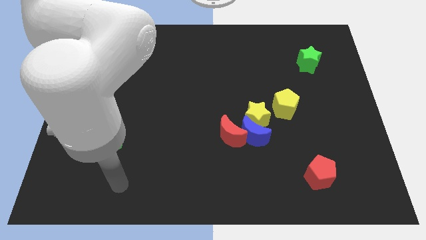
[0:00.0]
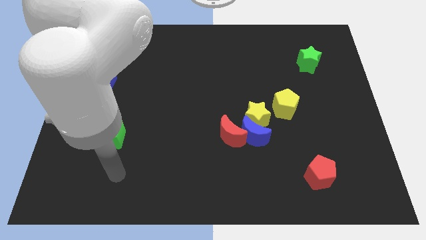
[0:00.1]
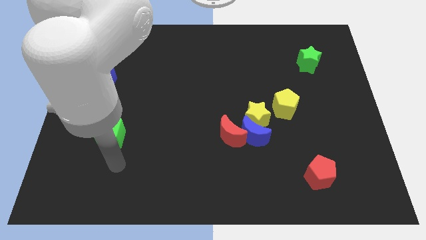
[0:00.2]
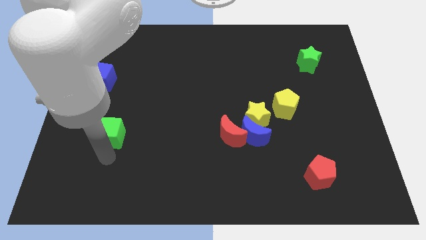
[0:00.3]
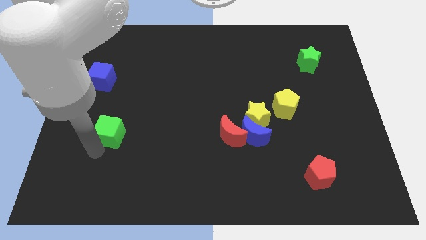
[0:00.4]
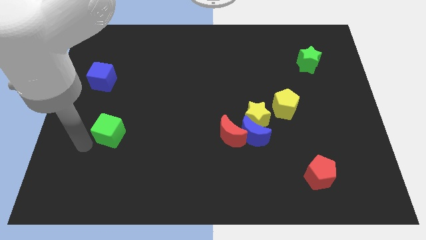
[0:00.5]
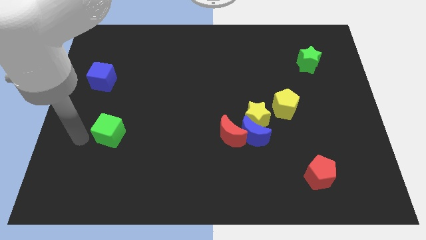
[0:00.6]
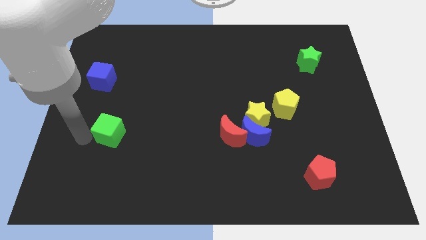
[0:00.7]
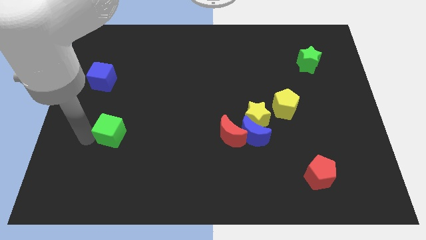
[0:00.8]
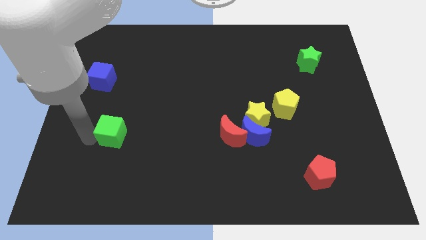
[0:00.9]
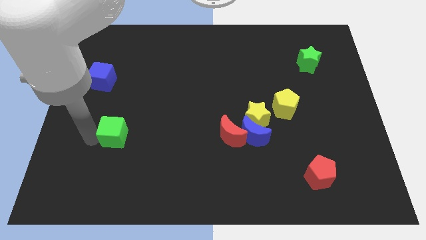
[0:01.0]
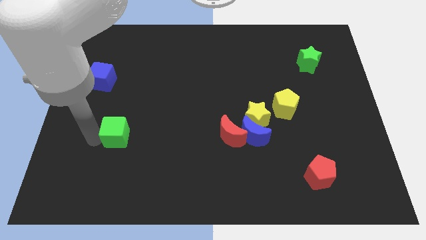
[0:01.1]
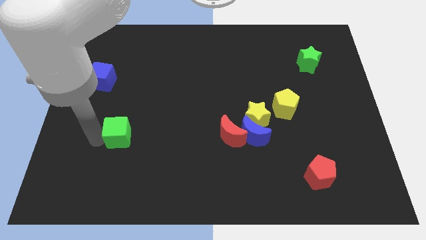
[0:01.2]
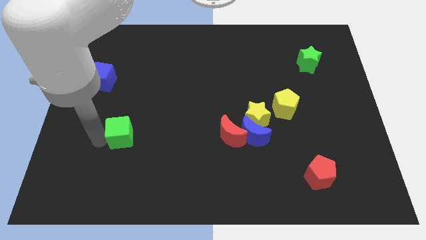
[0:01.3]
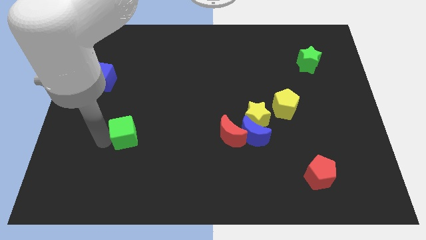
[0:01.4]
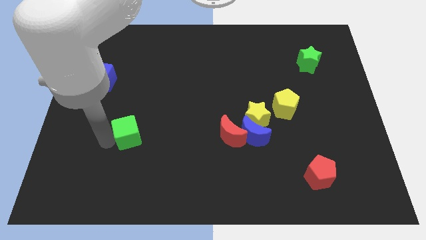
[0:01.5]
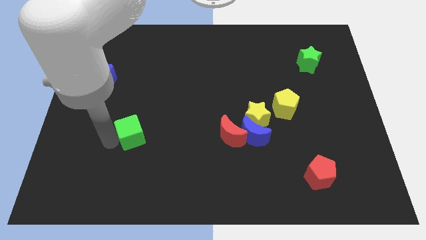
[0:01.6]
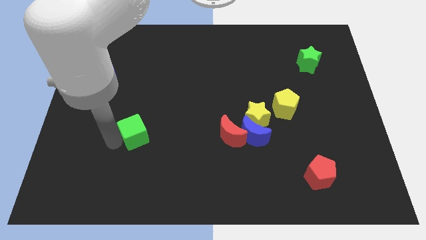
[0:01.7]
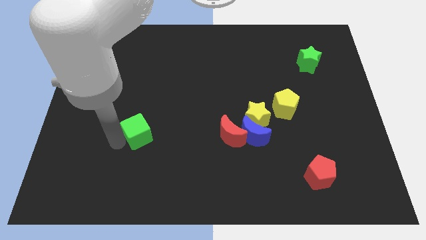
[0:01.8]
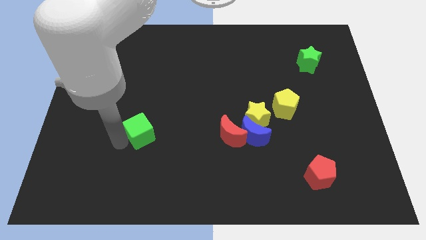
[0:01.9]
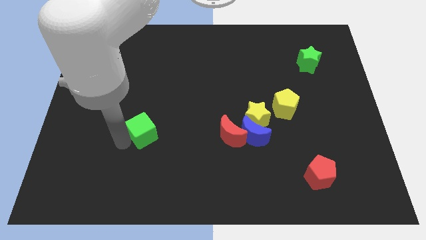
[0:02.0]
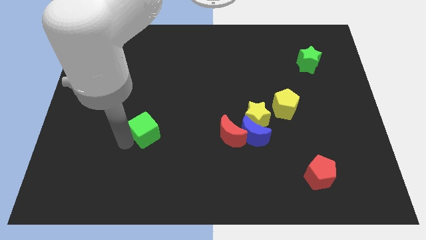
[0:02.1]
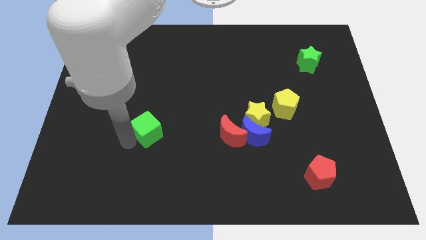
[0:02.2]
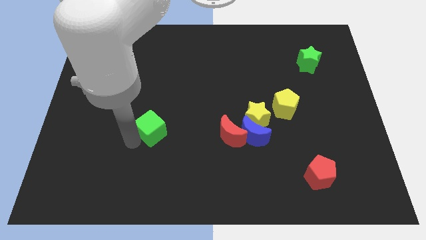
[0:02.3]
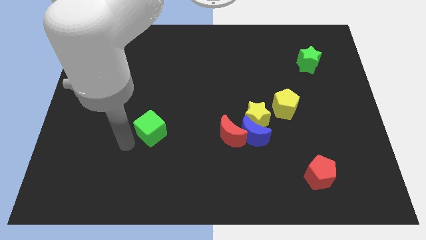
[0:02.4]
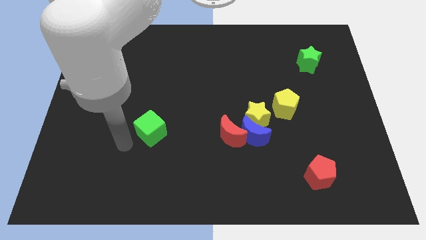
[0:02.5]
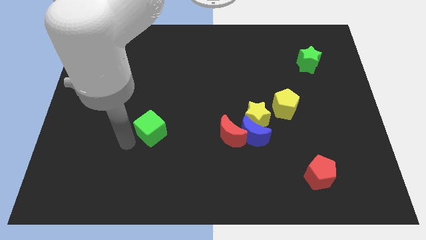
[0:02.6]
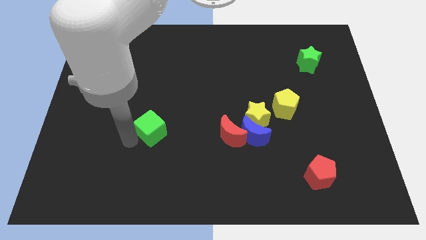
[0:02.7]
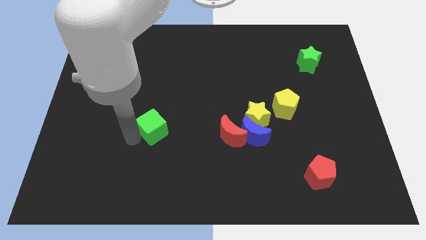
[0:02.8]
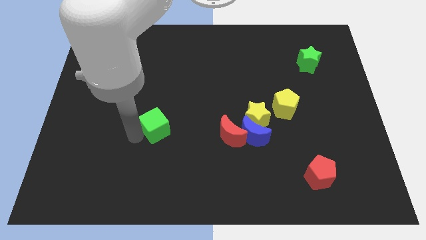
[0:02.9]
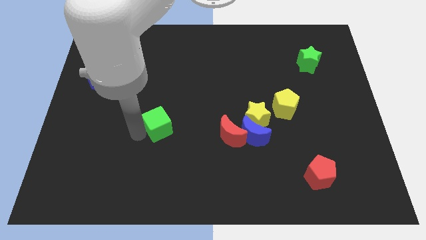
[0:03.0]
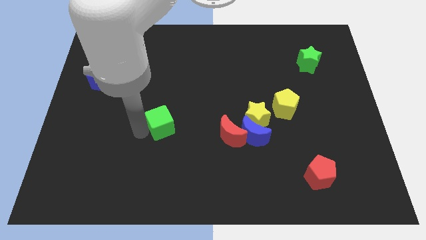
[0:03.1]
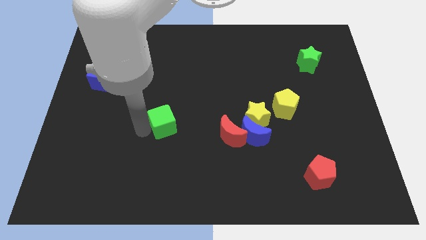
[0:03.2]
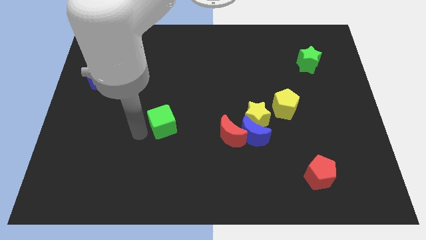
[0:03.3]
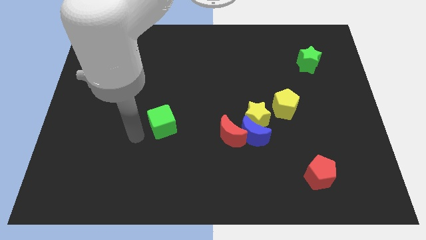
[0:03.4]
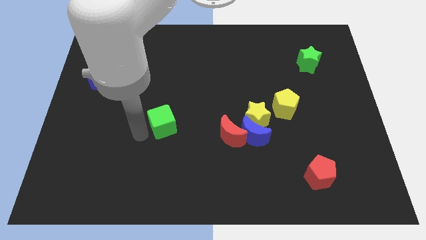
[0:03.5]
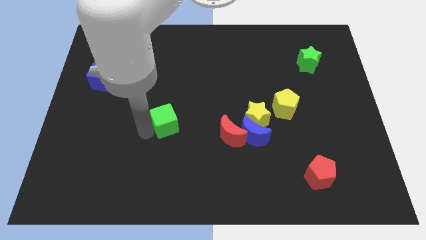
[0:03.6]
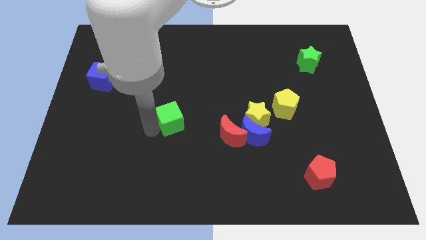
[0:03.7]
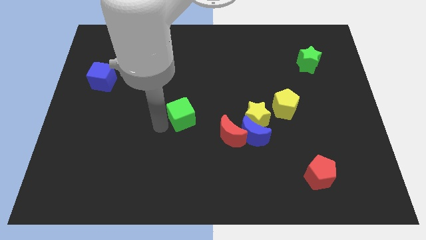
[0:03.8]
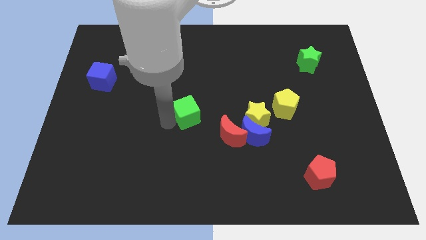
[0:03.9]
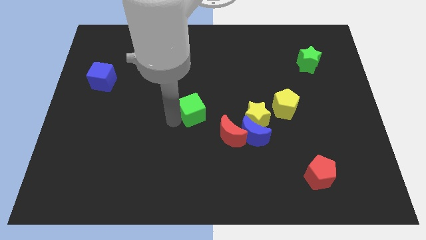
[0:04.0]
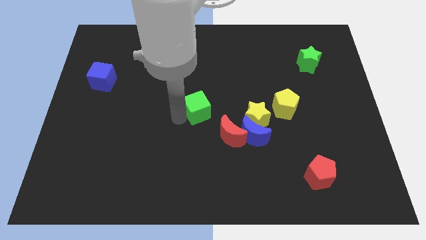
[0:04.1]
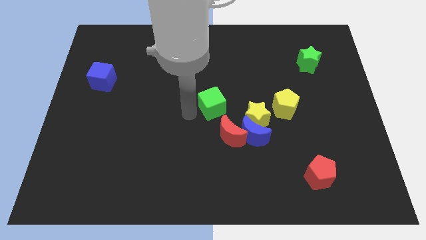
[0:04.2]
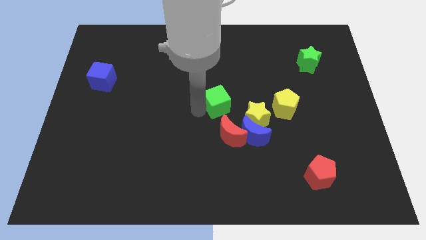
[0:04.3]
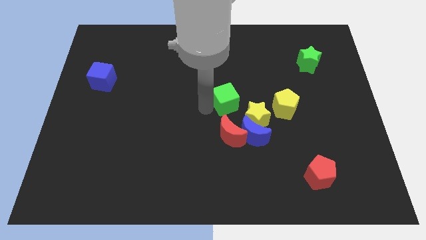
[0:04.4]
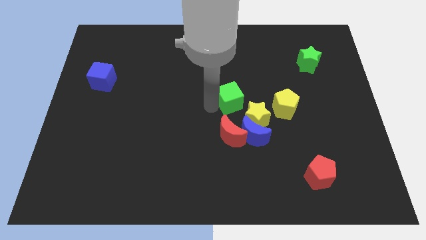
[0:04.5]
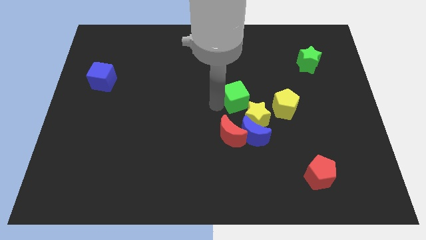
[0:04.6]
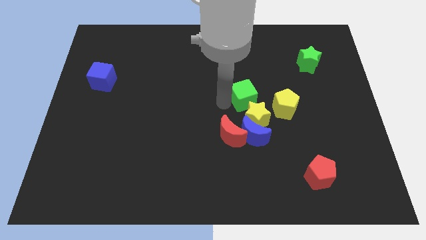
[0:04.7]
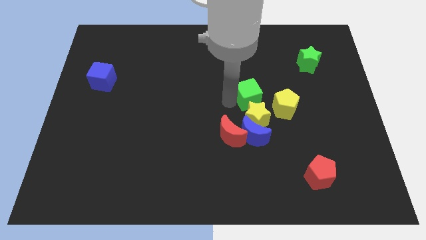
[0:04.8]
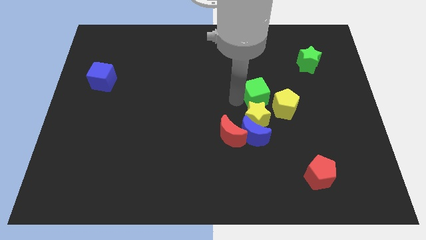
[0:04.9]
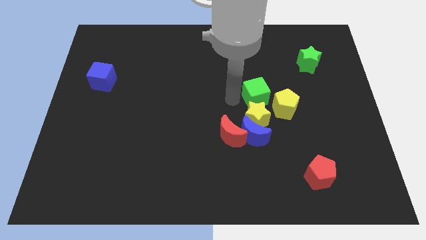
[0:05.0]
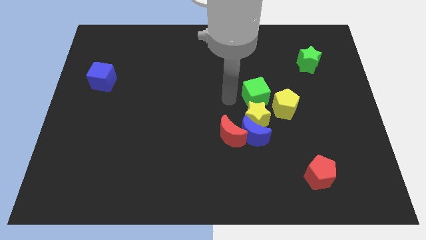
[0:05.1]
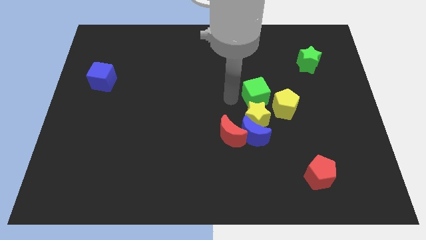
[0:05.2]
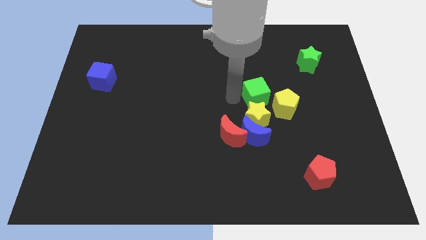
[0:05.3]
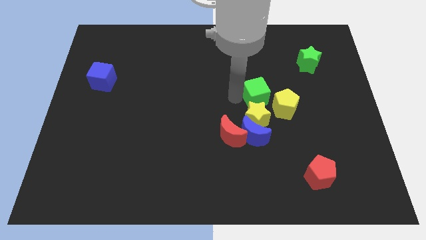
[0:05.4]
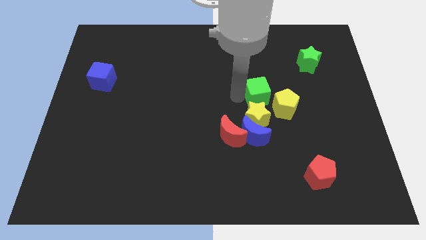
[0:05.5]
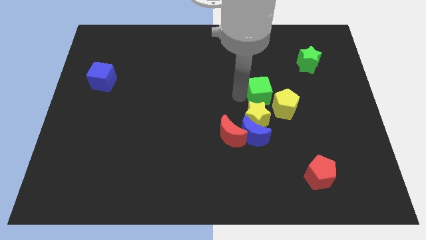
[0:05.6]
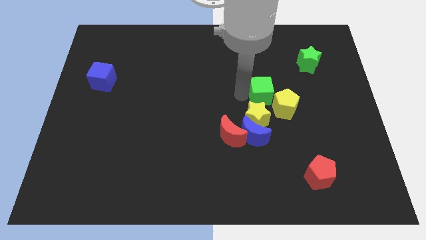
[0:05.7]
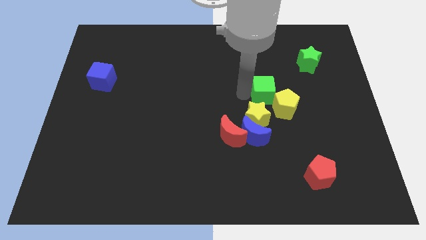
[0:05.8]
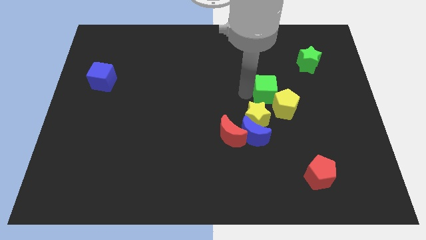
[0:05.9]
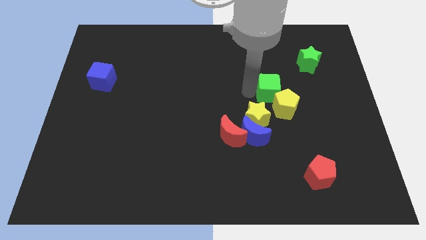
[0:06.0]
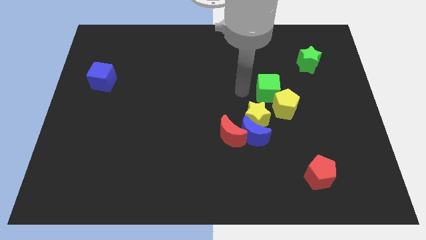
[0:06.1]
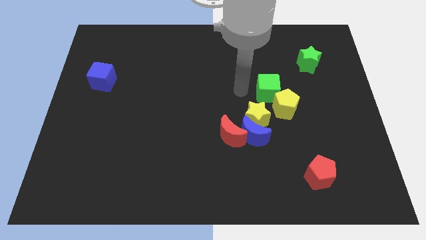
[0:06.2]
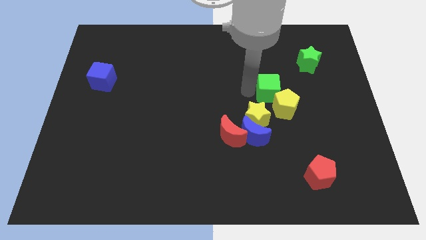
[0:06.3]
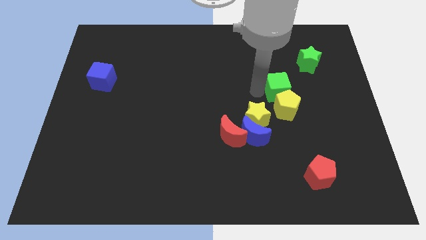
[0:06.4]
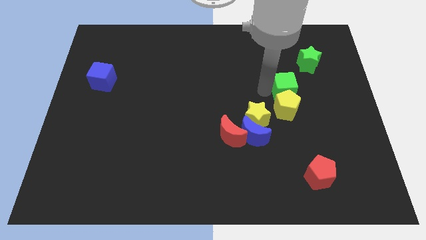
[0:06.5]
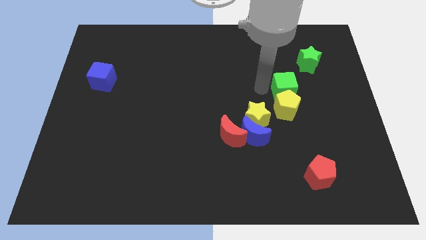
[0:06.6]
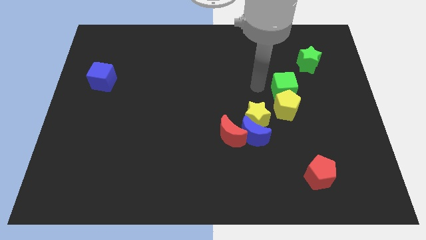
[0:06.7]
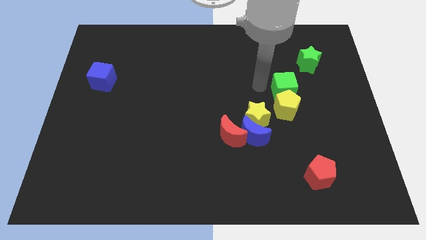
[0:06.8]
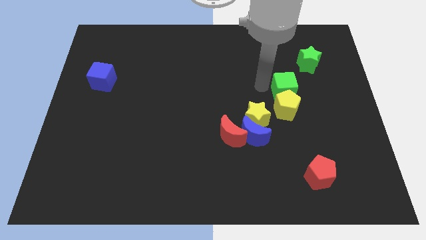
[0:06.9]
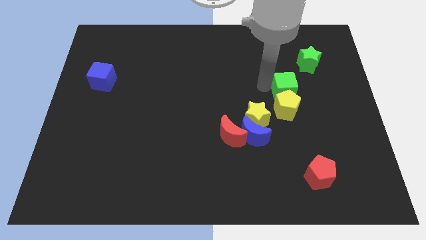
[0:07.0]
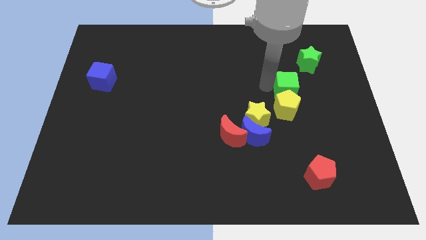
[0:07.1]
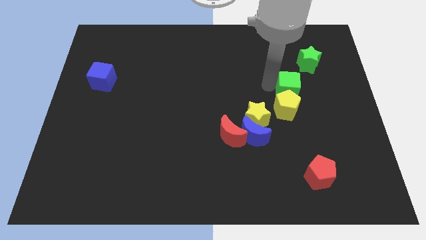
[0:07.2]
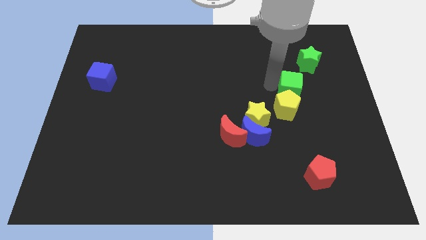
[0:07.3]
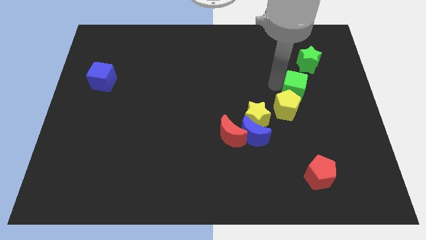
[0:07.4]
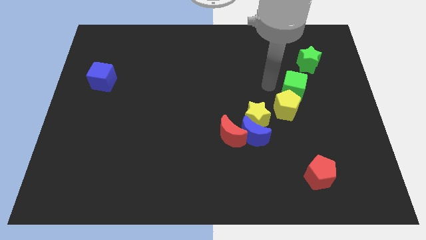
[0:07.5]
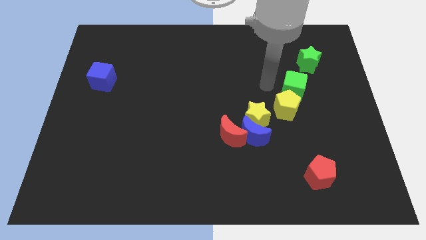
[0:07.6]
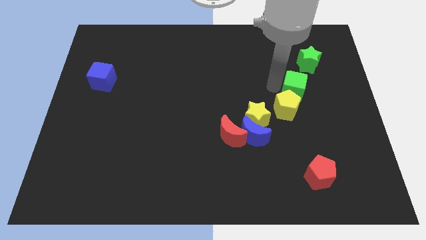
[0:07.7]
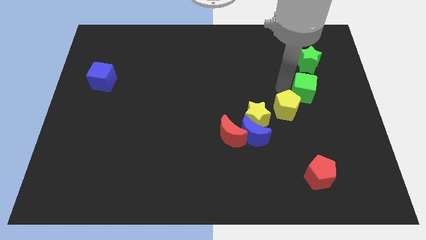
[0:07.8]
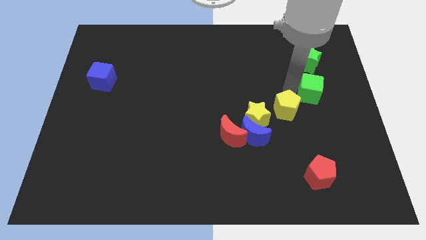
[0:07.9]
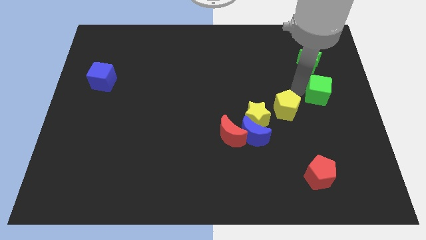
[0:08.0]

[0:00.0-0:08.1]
put the green cube to the right side of the board
